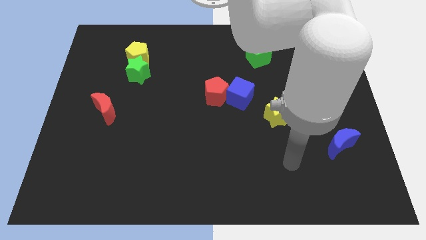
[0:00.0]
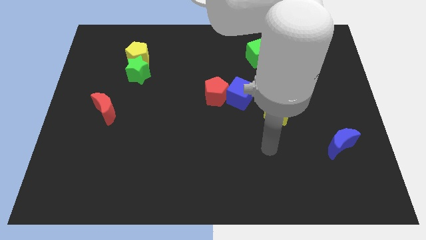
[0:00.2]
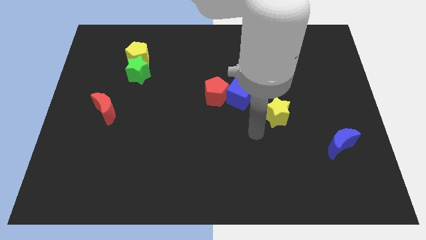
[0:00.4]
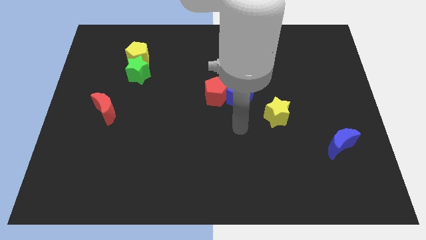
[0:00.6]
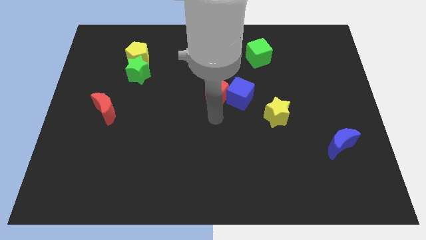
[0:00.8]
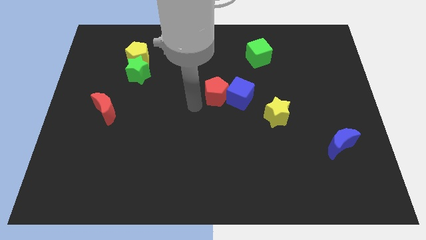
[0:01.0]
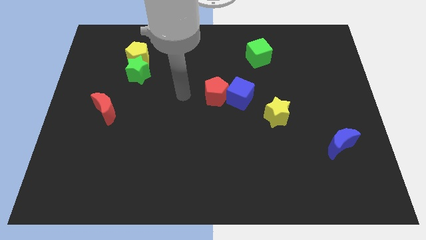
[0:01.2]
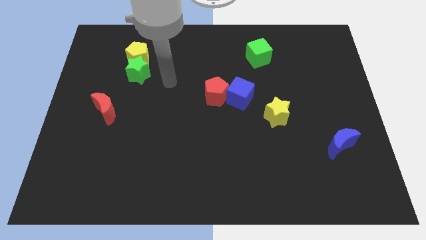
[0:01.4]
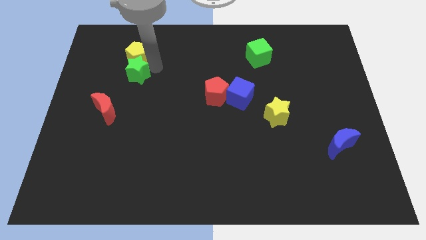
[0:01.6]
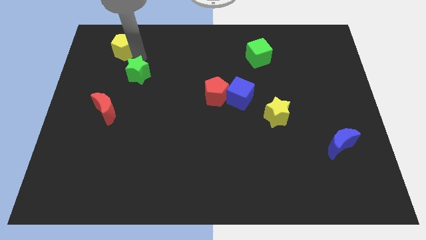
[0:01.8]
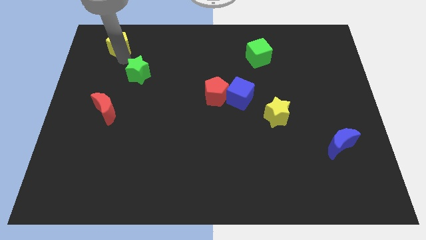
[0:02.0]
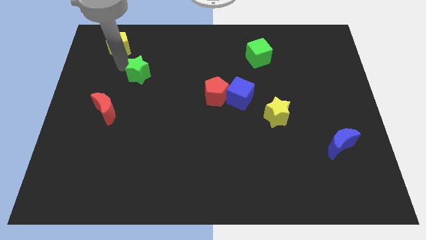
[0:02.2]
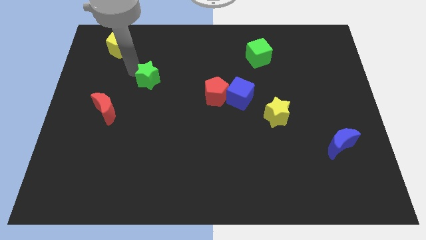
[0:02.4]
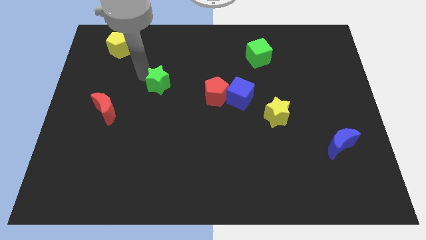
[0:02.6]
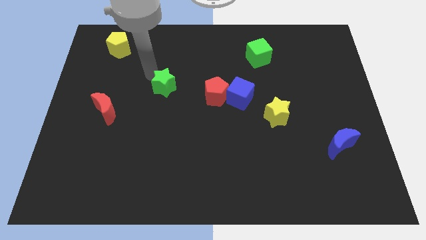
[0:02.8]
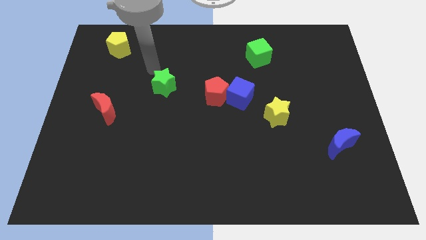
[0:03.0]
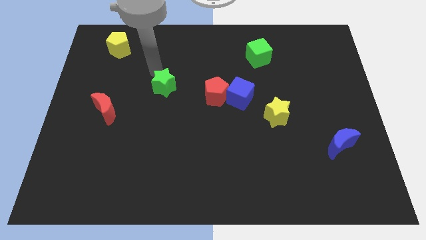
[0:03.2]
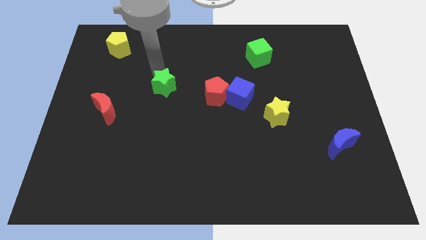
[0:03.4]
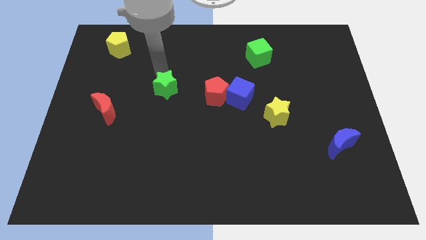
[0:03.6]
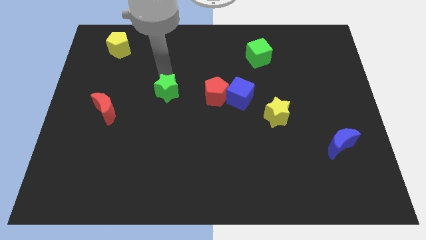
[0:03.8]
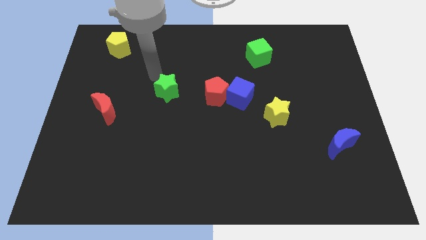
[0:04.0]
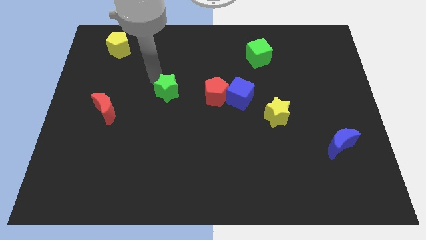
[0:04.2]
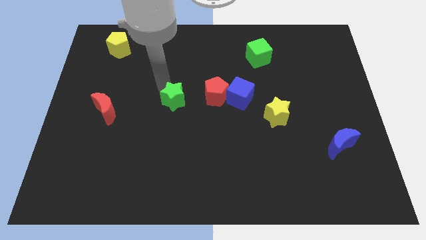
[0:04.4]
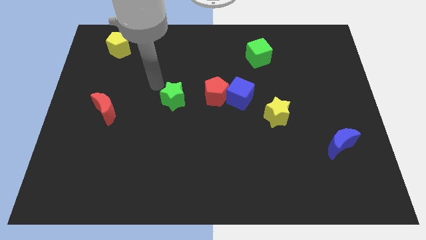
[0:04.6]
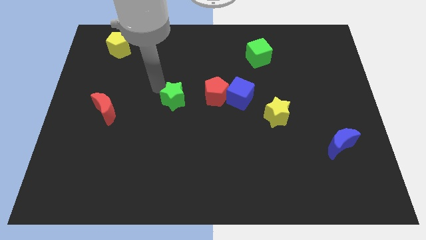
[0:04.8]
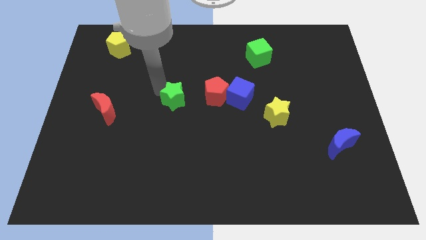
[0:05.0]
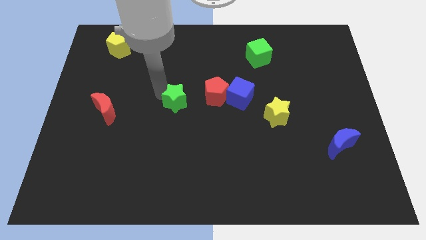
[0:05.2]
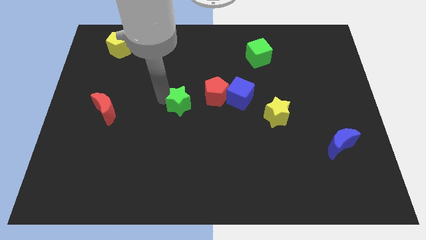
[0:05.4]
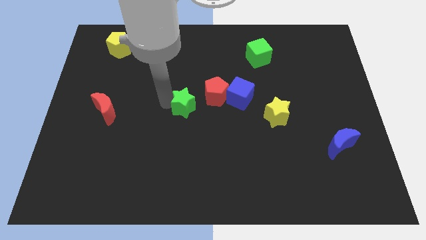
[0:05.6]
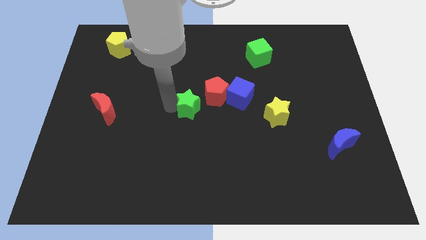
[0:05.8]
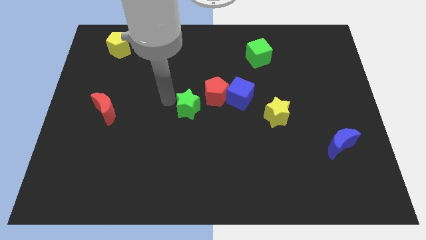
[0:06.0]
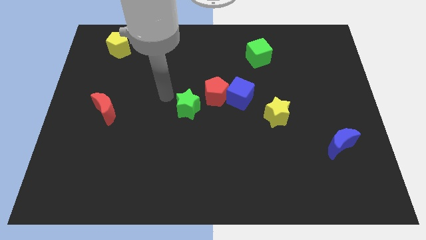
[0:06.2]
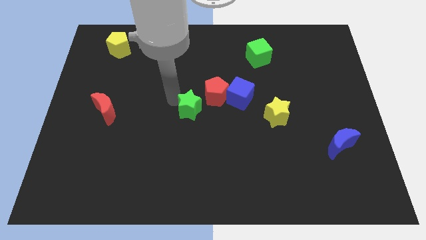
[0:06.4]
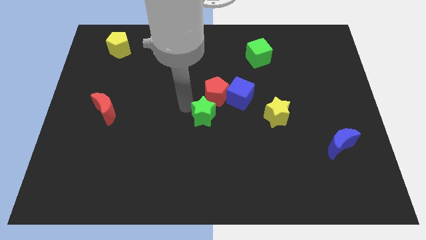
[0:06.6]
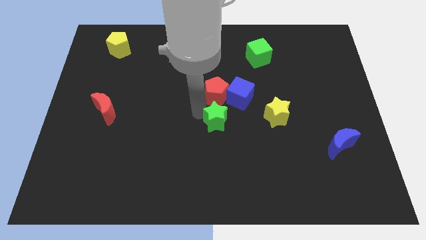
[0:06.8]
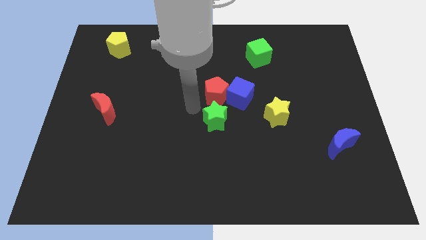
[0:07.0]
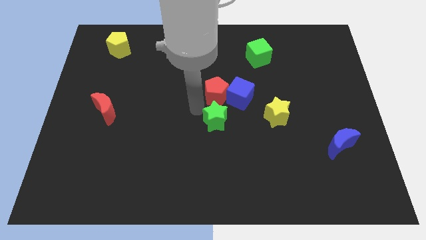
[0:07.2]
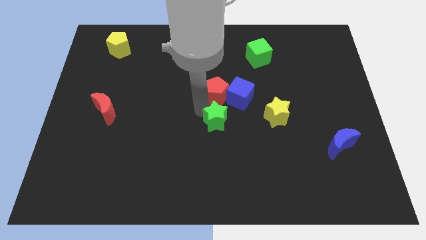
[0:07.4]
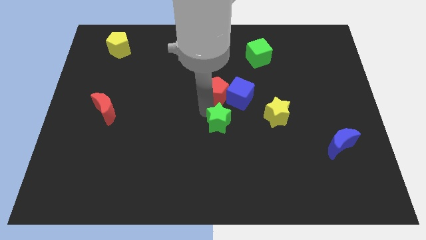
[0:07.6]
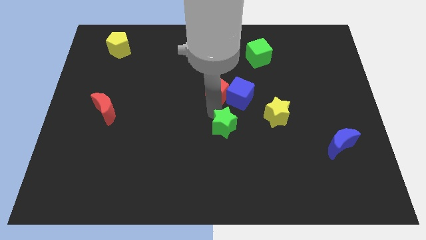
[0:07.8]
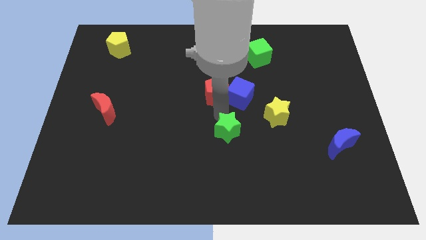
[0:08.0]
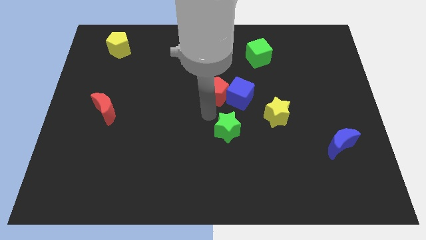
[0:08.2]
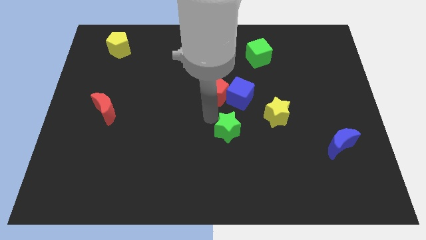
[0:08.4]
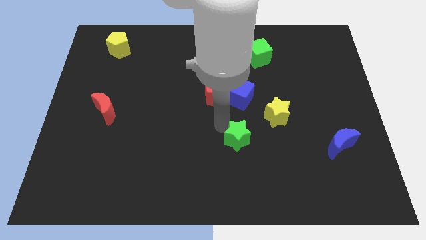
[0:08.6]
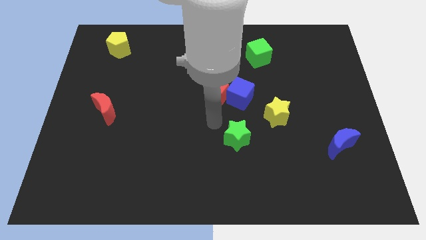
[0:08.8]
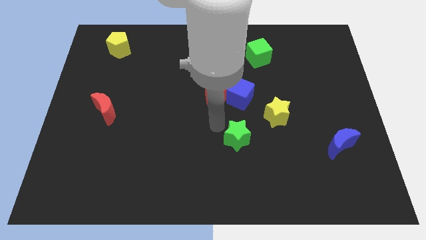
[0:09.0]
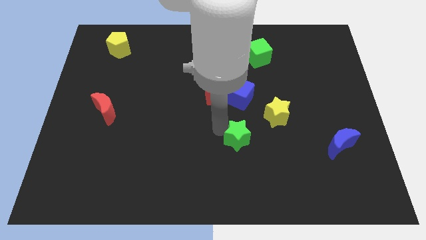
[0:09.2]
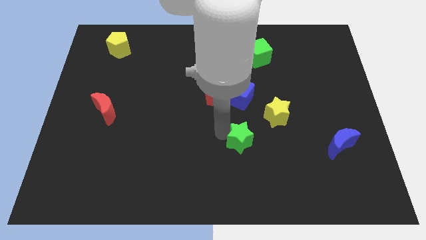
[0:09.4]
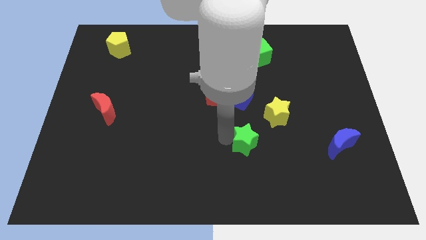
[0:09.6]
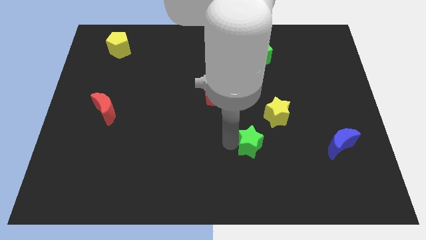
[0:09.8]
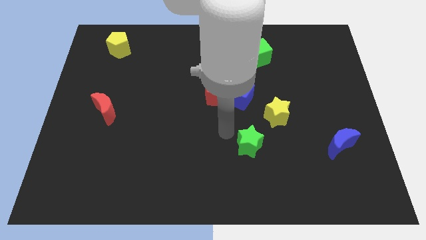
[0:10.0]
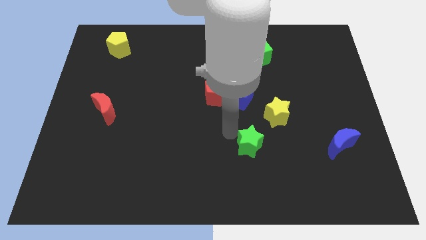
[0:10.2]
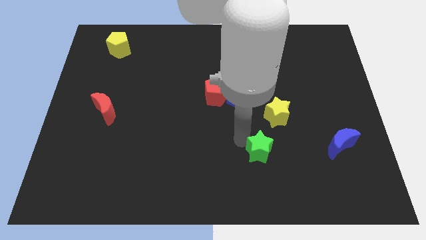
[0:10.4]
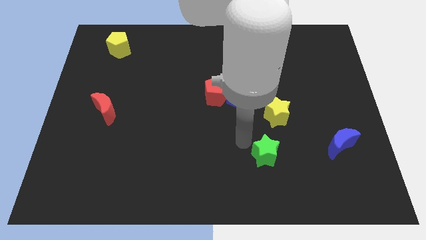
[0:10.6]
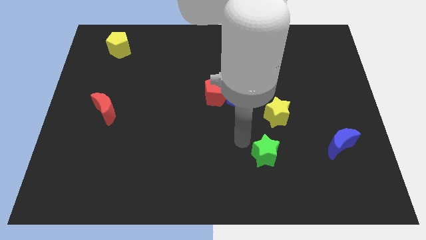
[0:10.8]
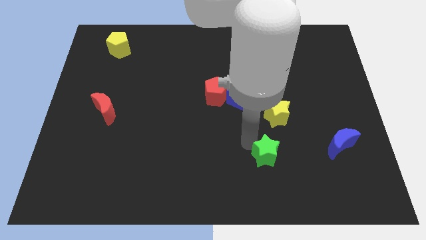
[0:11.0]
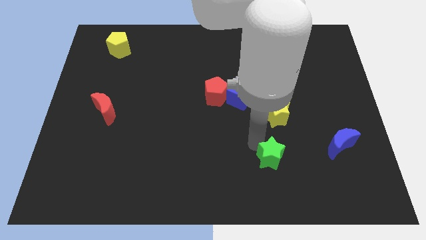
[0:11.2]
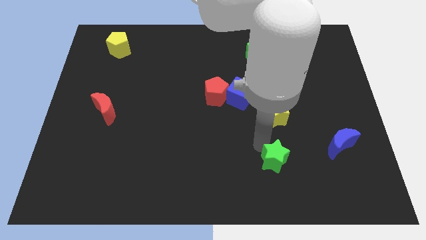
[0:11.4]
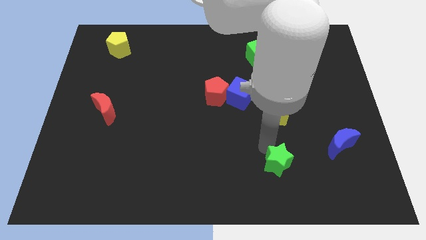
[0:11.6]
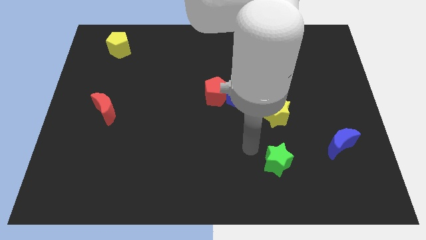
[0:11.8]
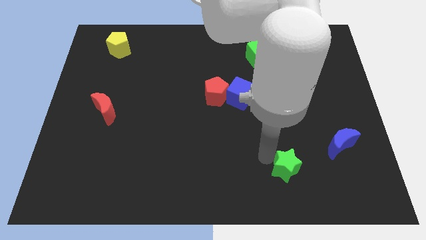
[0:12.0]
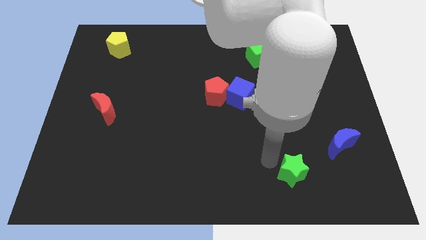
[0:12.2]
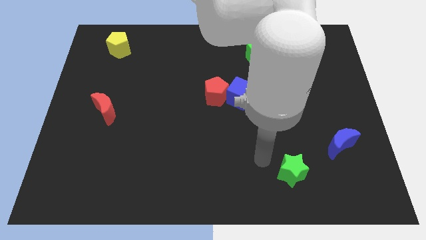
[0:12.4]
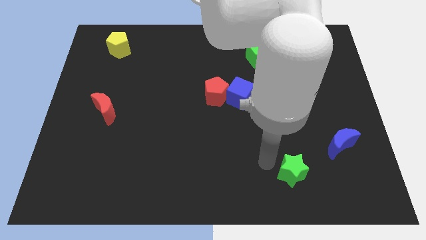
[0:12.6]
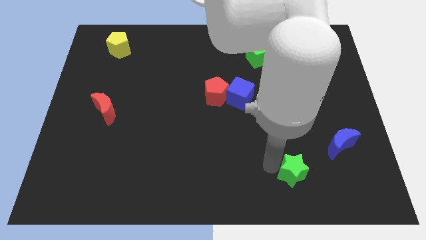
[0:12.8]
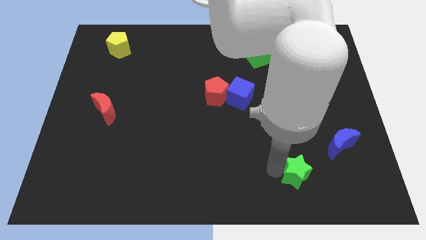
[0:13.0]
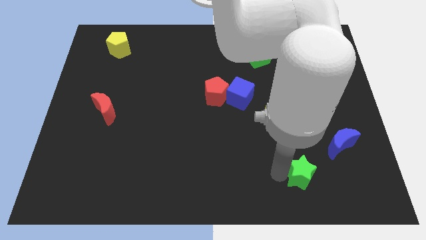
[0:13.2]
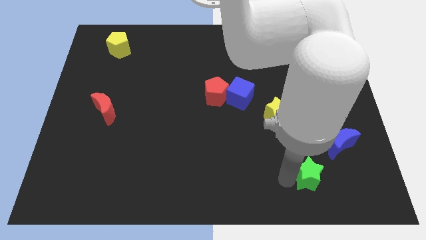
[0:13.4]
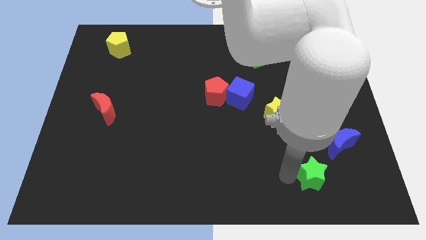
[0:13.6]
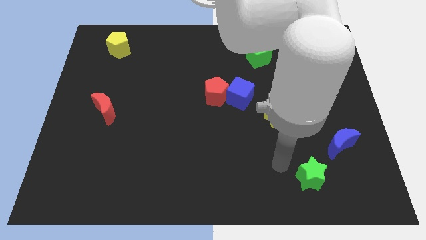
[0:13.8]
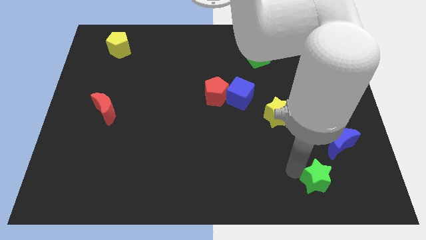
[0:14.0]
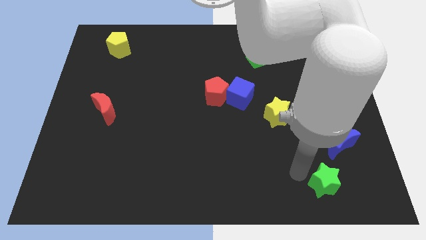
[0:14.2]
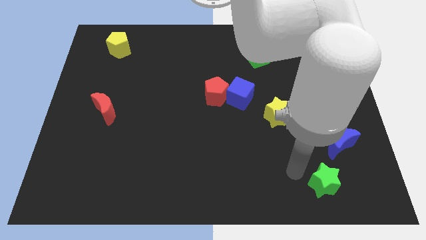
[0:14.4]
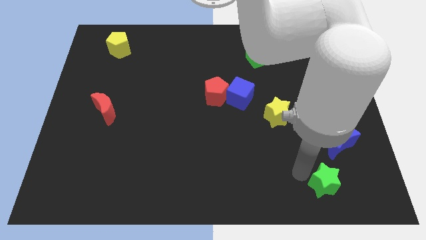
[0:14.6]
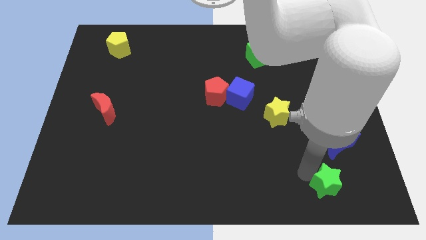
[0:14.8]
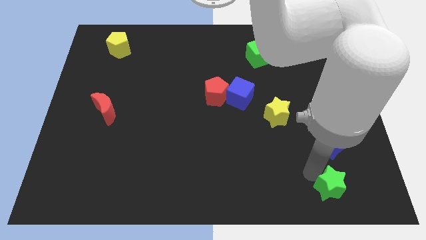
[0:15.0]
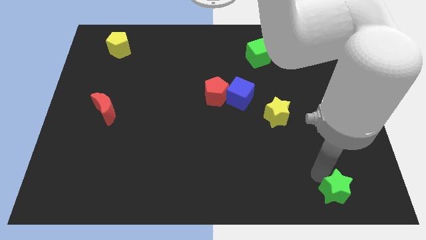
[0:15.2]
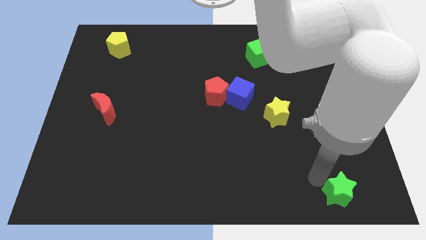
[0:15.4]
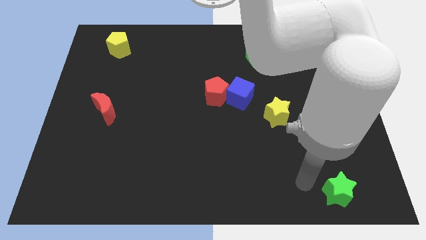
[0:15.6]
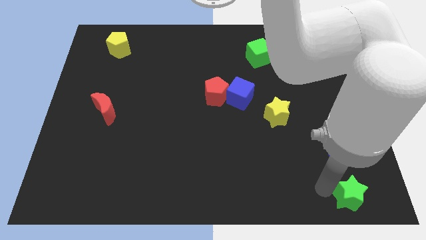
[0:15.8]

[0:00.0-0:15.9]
put the green star to the bottom right corner
